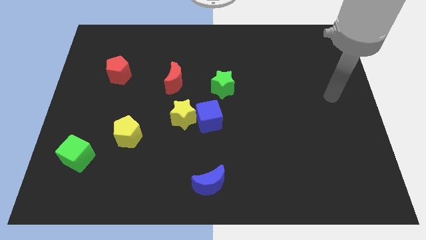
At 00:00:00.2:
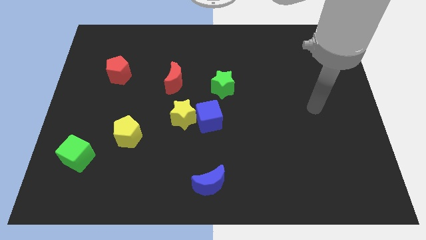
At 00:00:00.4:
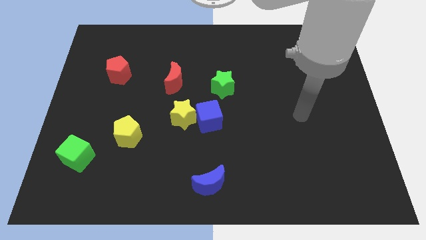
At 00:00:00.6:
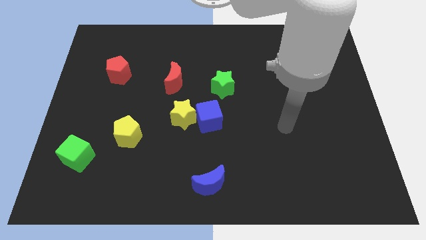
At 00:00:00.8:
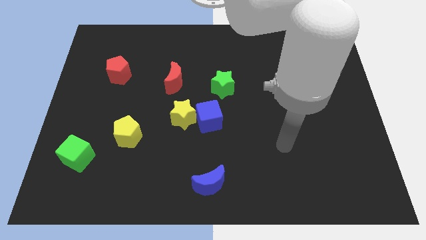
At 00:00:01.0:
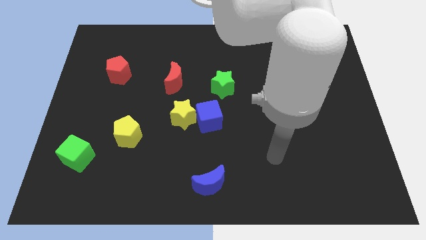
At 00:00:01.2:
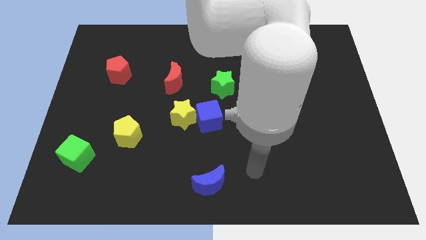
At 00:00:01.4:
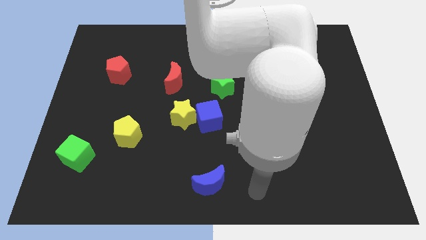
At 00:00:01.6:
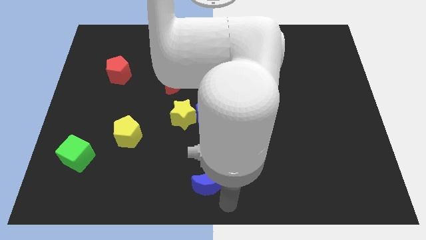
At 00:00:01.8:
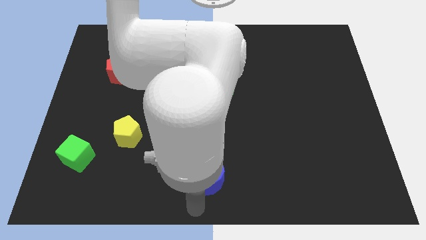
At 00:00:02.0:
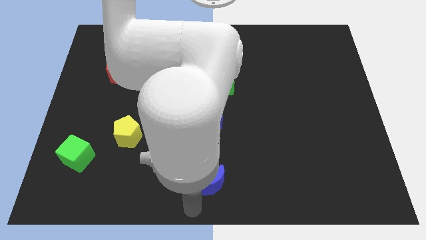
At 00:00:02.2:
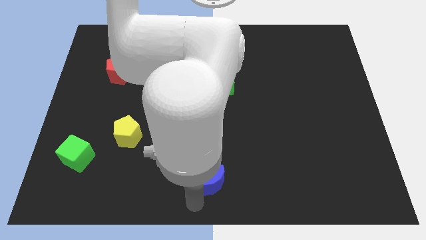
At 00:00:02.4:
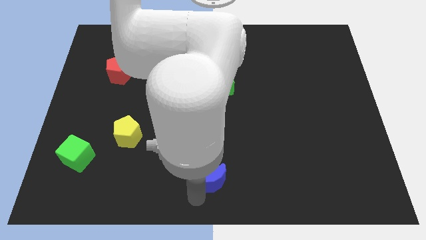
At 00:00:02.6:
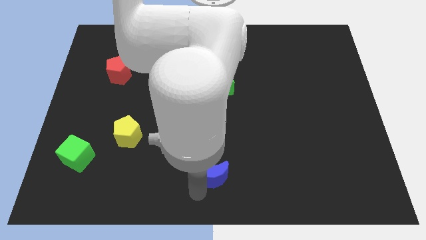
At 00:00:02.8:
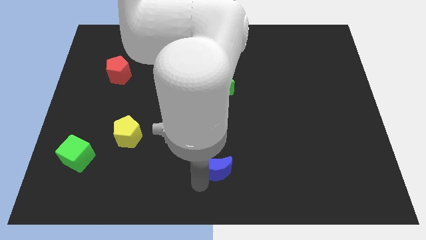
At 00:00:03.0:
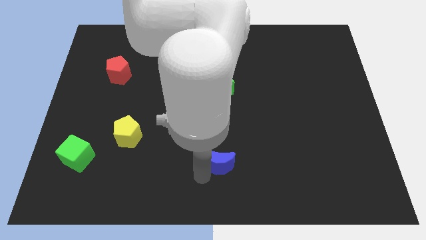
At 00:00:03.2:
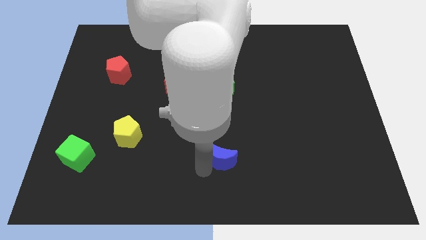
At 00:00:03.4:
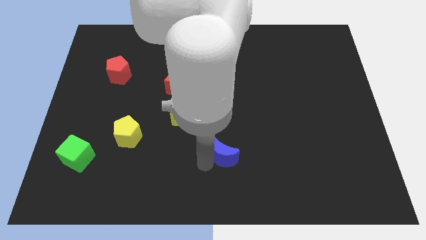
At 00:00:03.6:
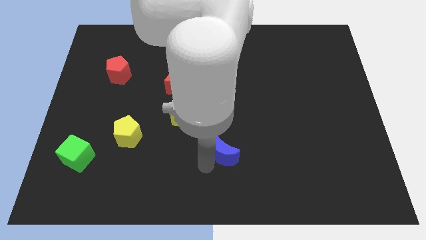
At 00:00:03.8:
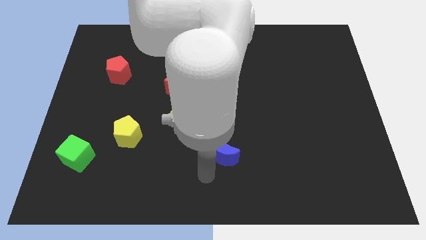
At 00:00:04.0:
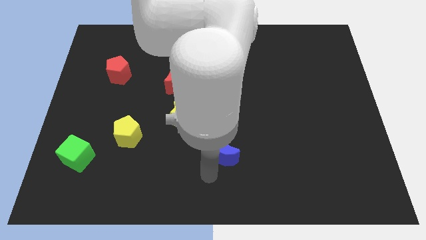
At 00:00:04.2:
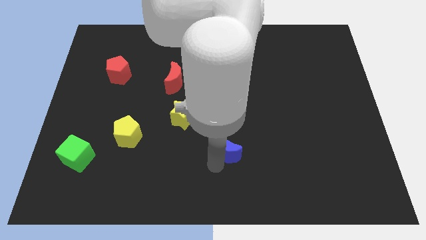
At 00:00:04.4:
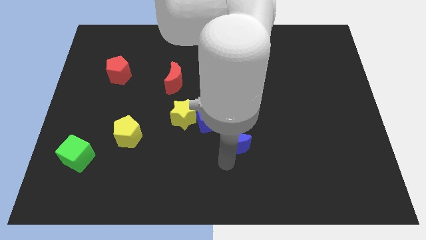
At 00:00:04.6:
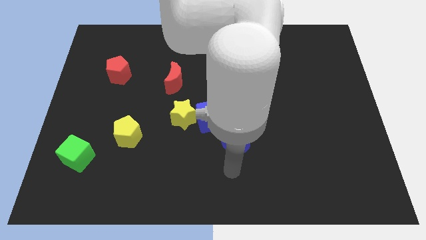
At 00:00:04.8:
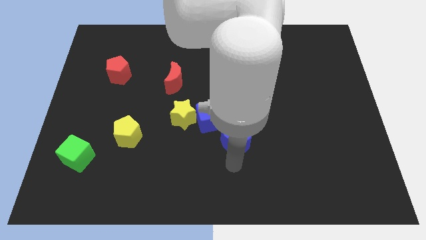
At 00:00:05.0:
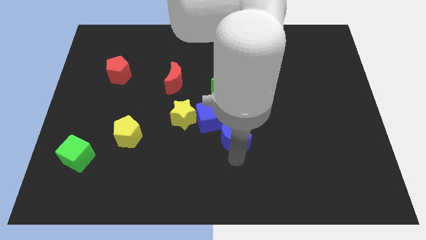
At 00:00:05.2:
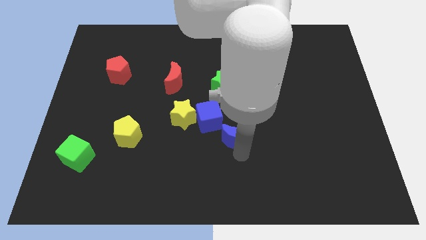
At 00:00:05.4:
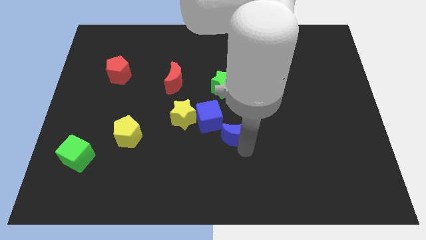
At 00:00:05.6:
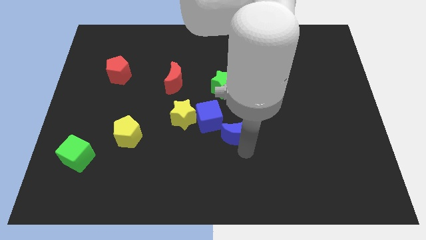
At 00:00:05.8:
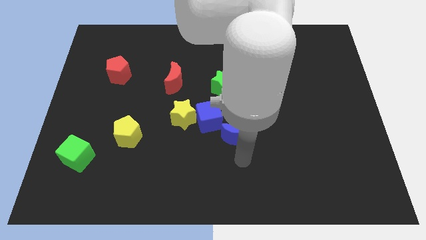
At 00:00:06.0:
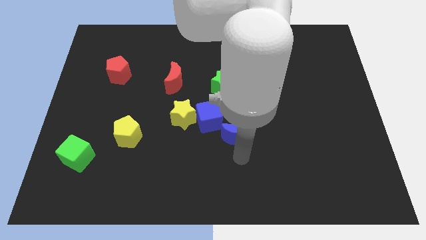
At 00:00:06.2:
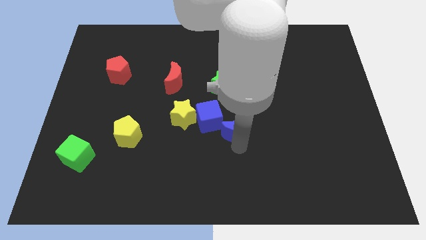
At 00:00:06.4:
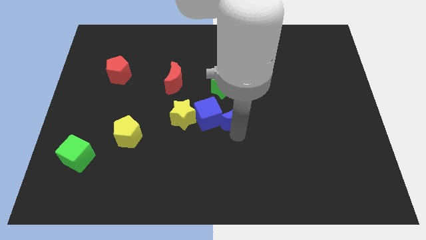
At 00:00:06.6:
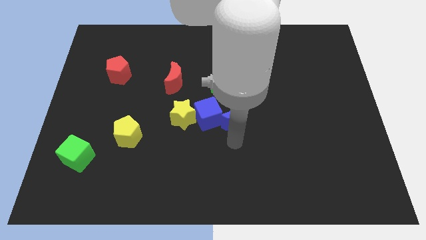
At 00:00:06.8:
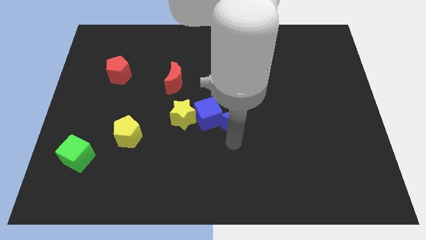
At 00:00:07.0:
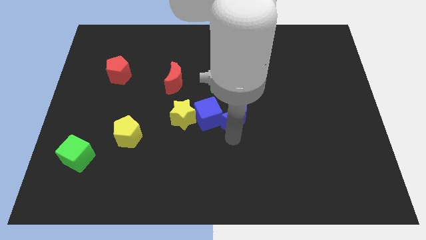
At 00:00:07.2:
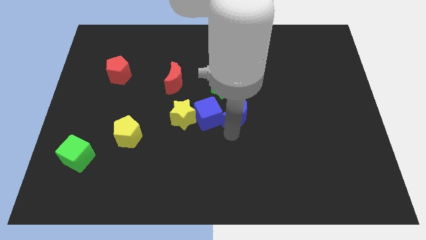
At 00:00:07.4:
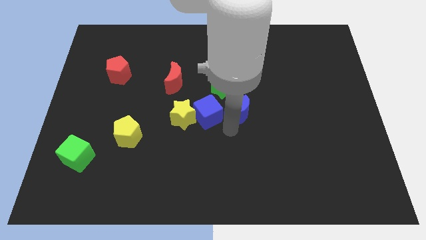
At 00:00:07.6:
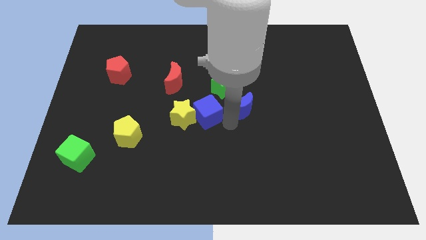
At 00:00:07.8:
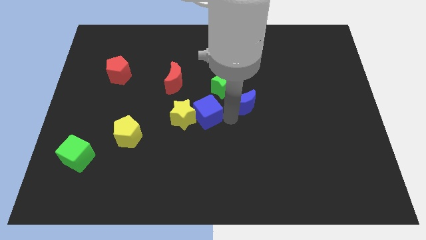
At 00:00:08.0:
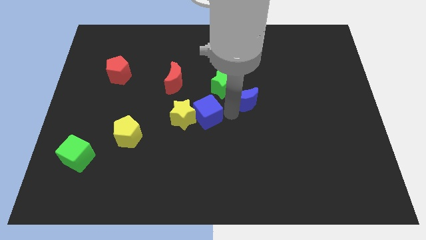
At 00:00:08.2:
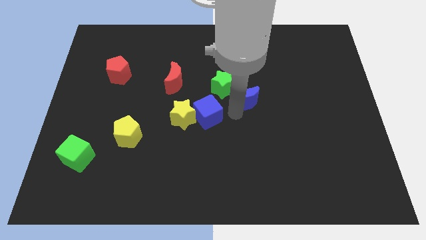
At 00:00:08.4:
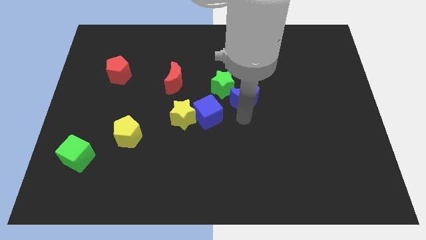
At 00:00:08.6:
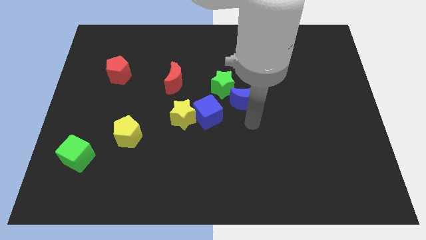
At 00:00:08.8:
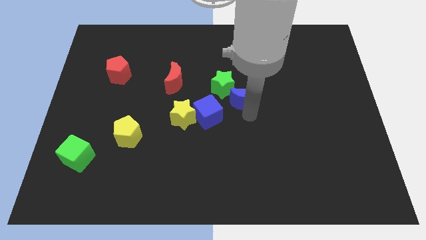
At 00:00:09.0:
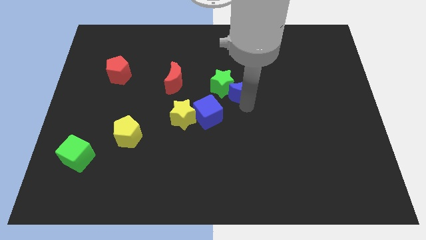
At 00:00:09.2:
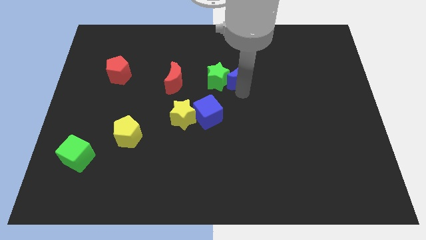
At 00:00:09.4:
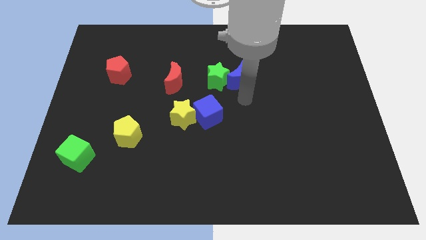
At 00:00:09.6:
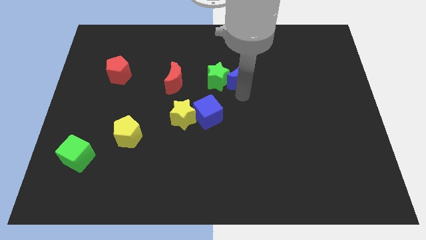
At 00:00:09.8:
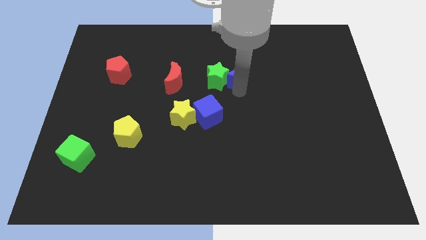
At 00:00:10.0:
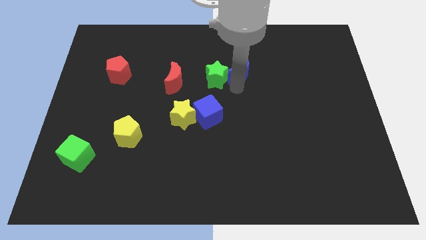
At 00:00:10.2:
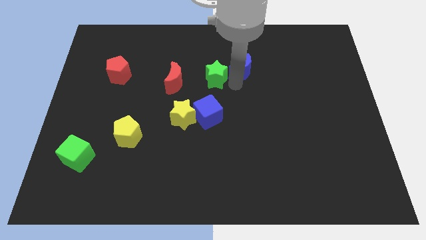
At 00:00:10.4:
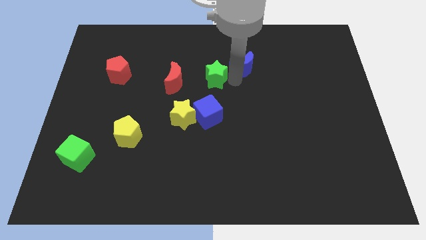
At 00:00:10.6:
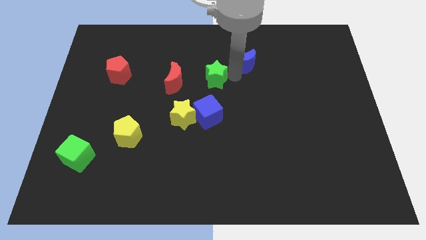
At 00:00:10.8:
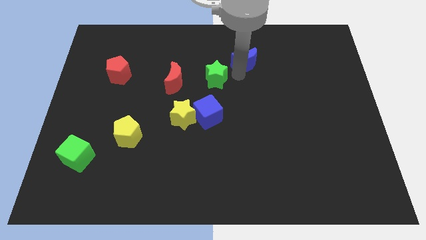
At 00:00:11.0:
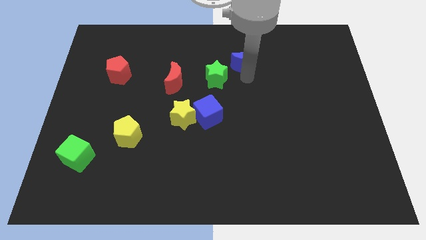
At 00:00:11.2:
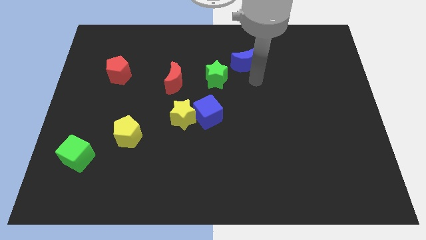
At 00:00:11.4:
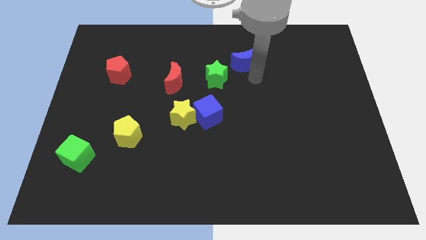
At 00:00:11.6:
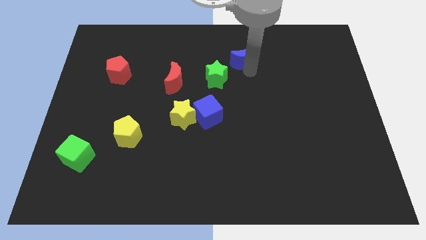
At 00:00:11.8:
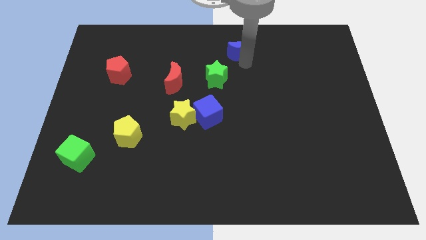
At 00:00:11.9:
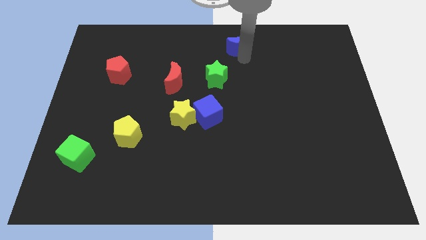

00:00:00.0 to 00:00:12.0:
slide the blue moon to the top side
